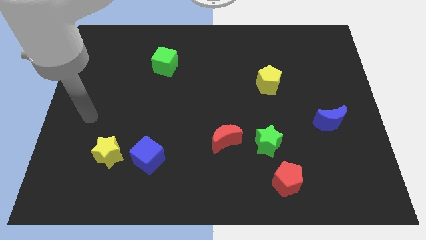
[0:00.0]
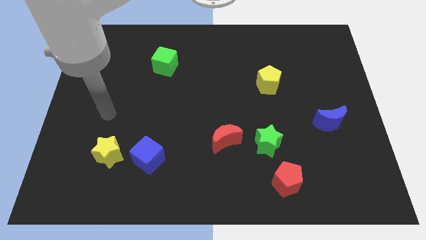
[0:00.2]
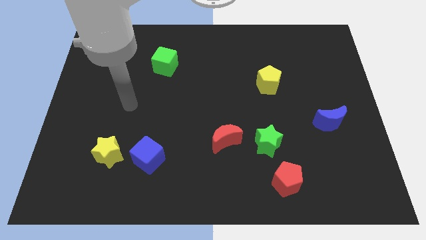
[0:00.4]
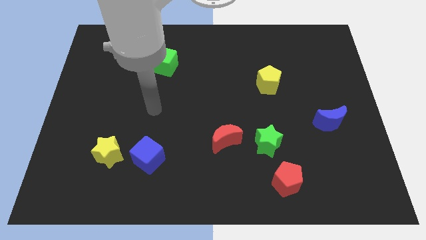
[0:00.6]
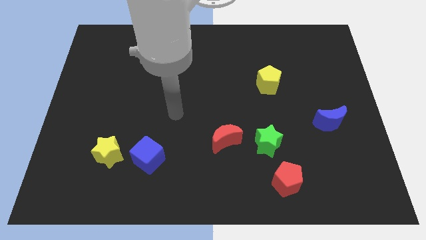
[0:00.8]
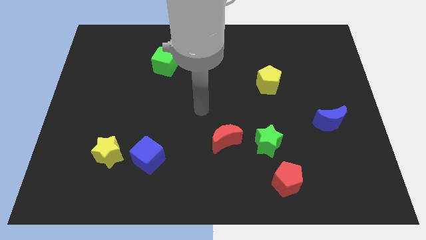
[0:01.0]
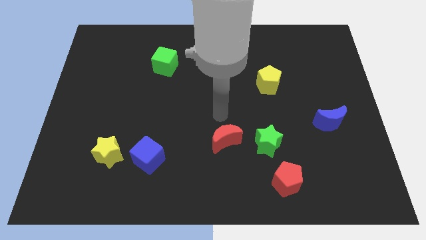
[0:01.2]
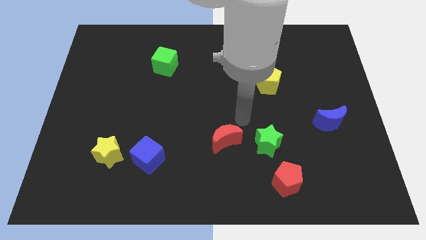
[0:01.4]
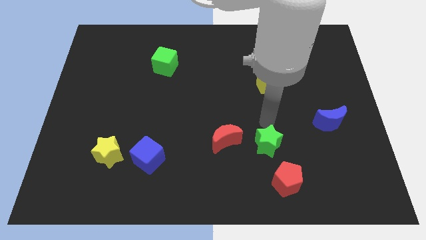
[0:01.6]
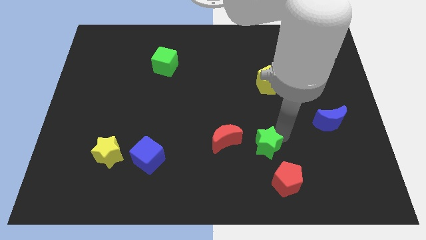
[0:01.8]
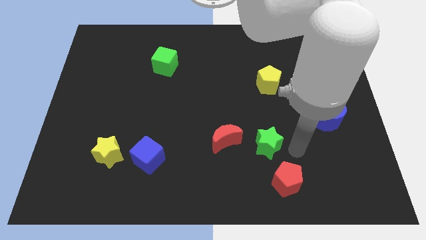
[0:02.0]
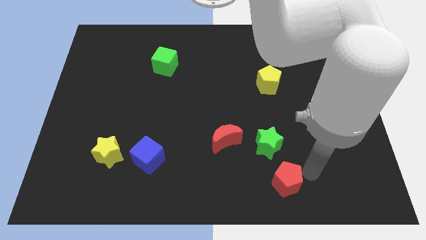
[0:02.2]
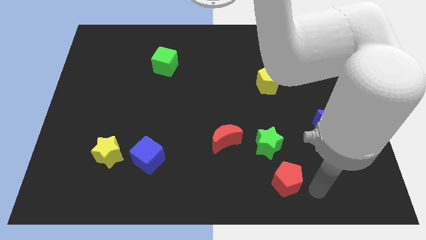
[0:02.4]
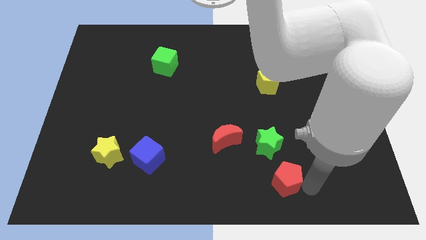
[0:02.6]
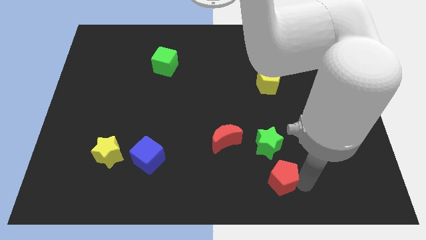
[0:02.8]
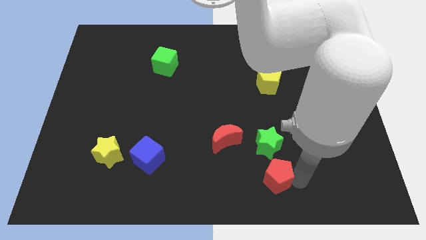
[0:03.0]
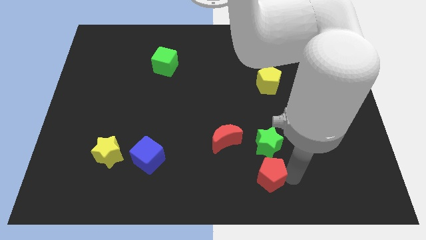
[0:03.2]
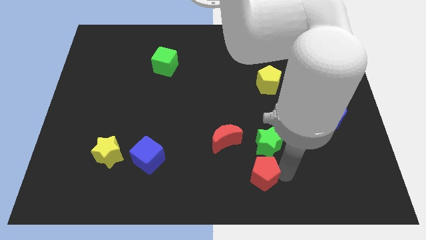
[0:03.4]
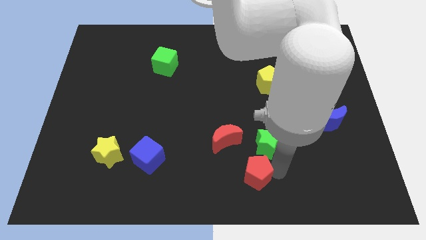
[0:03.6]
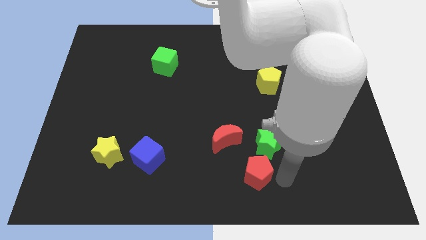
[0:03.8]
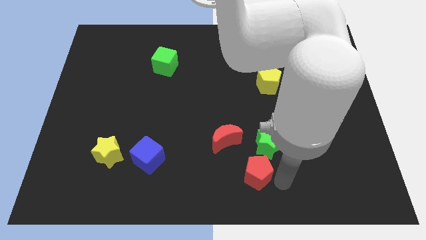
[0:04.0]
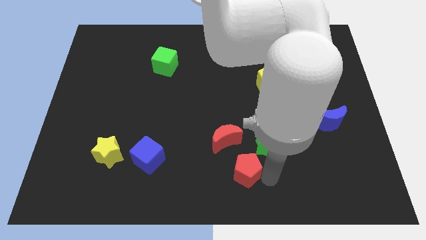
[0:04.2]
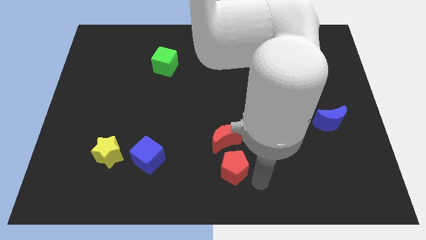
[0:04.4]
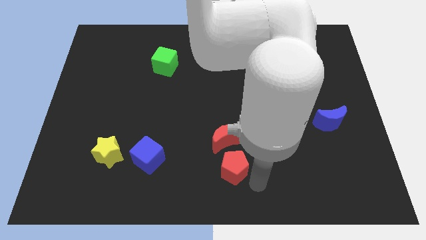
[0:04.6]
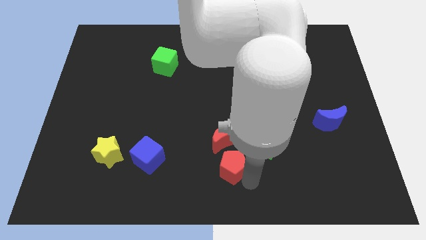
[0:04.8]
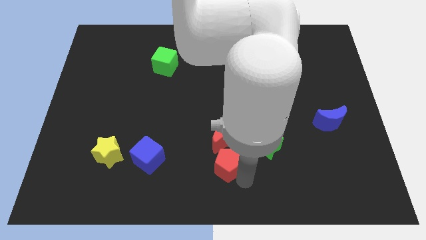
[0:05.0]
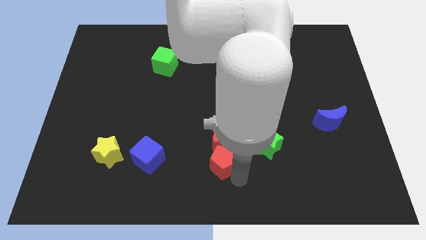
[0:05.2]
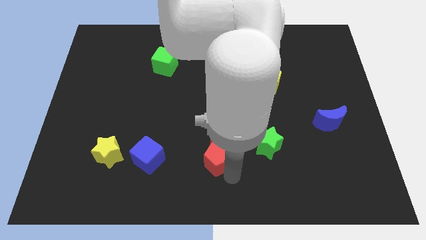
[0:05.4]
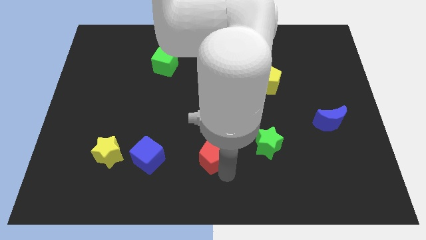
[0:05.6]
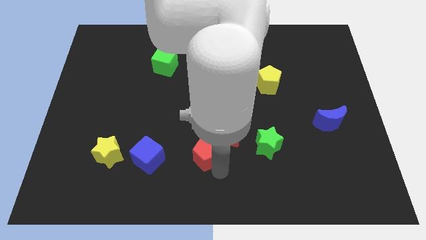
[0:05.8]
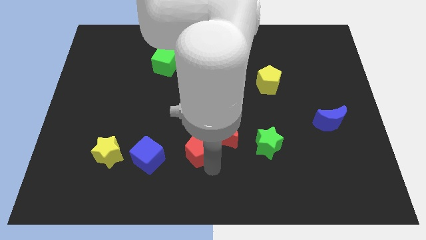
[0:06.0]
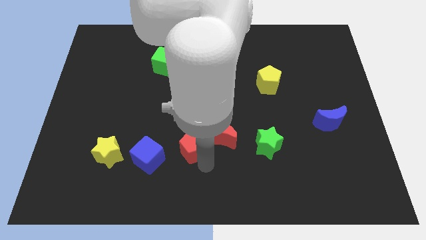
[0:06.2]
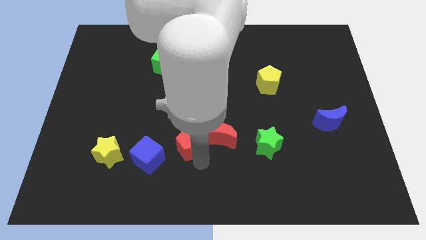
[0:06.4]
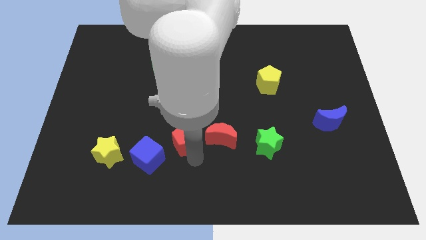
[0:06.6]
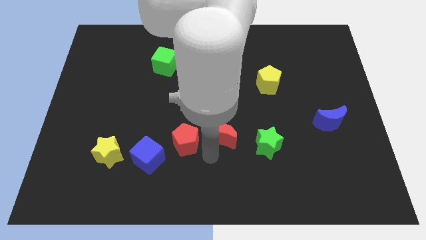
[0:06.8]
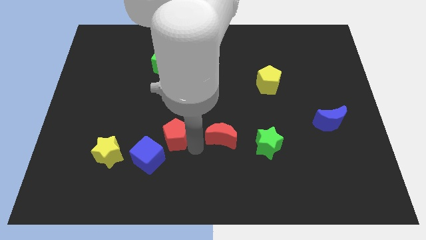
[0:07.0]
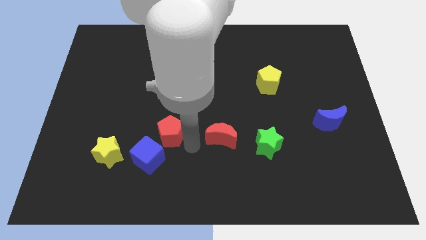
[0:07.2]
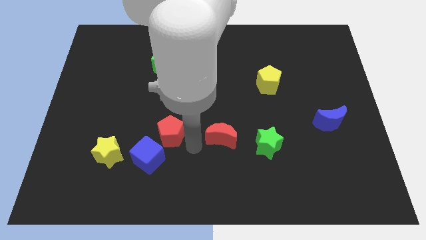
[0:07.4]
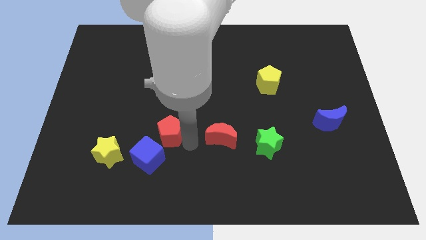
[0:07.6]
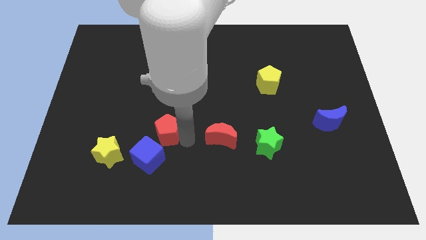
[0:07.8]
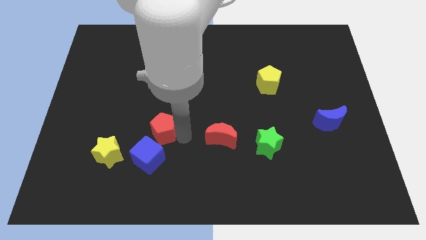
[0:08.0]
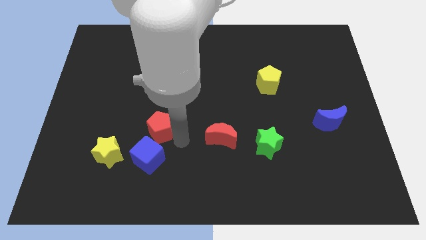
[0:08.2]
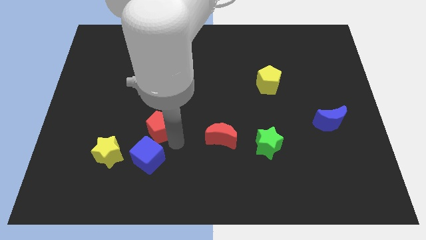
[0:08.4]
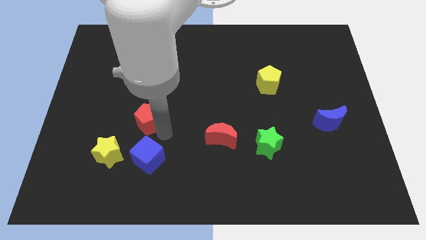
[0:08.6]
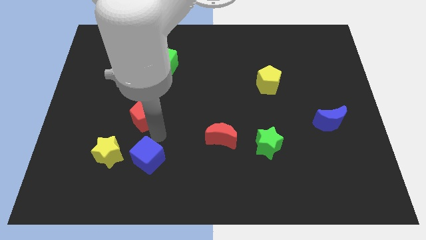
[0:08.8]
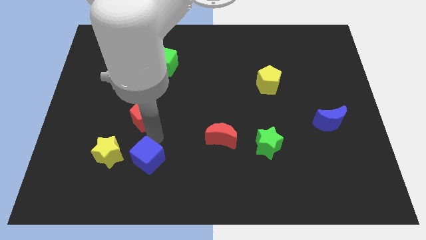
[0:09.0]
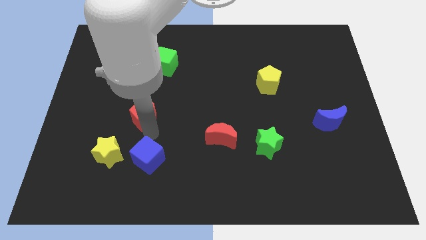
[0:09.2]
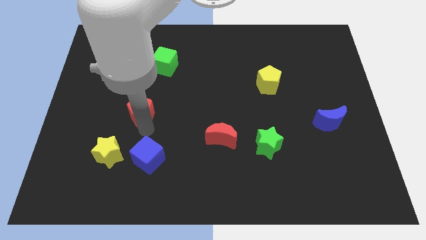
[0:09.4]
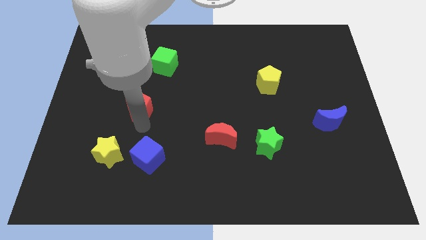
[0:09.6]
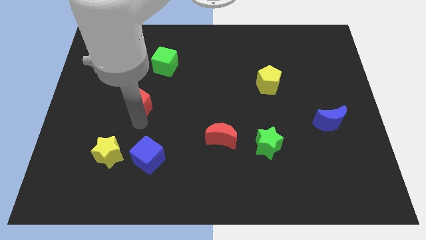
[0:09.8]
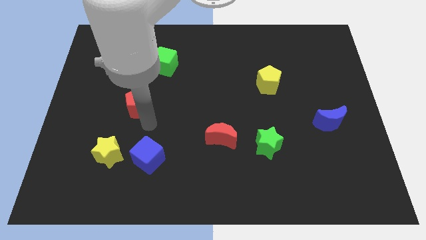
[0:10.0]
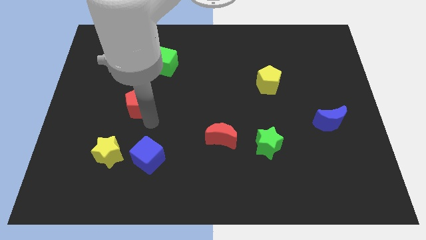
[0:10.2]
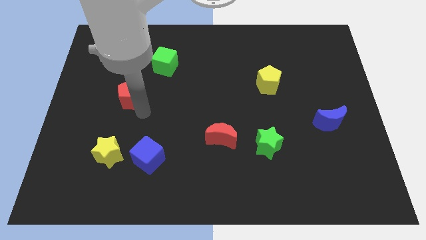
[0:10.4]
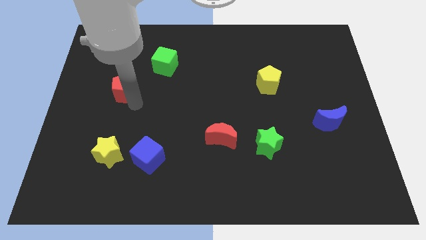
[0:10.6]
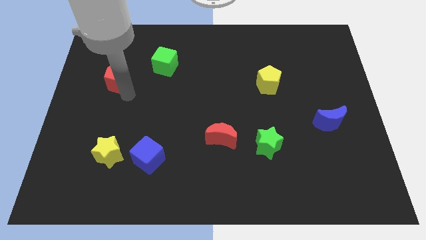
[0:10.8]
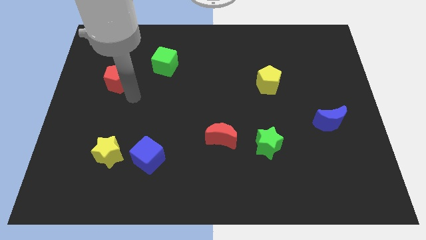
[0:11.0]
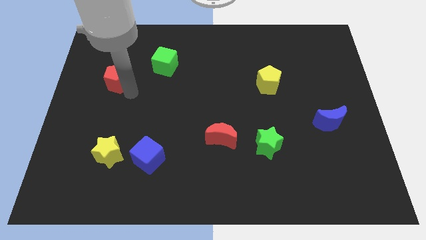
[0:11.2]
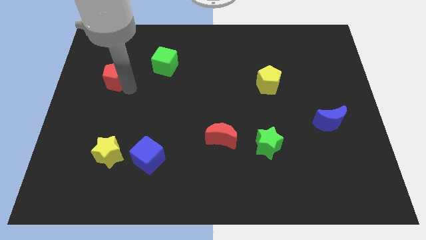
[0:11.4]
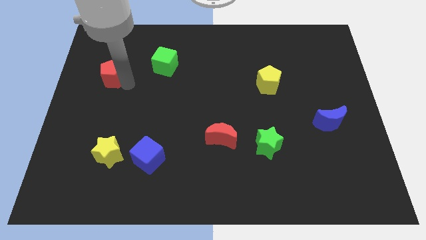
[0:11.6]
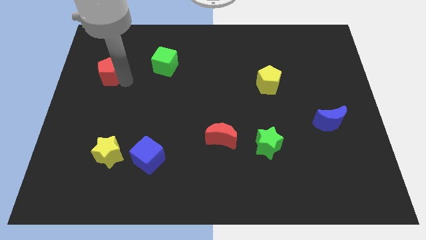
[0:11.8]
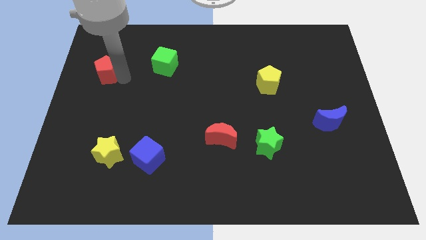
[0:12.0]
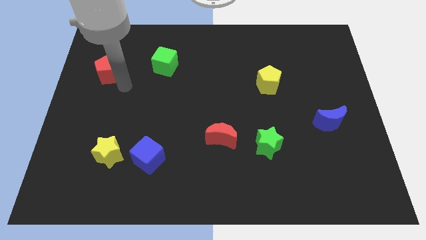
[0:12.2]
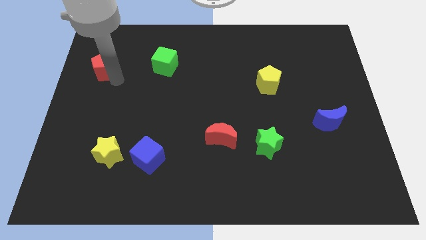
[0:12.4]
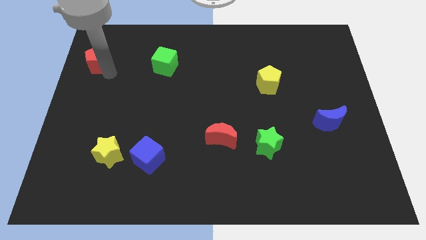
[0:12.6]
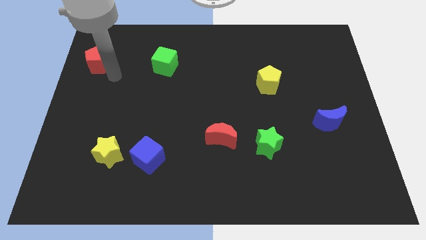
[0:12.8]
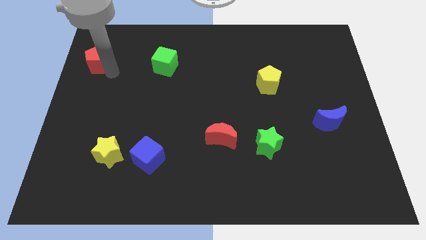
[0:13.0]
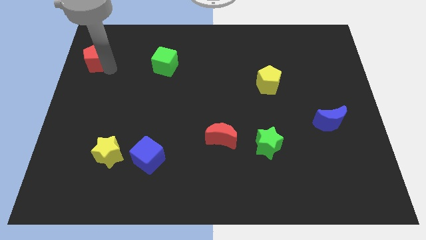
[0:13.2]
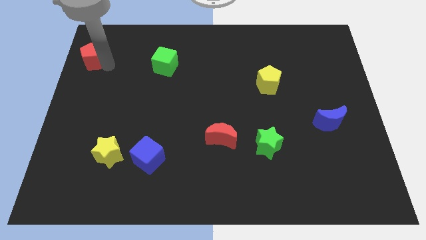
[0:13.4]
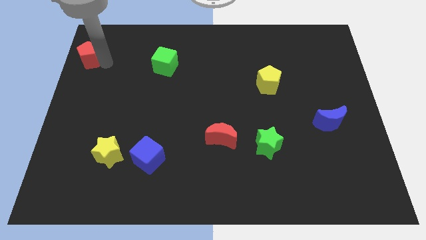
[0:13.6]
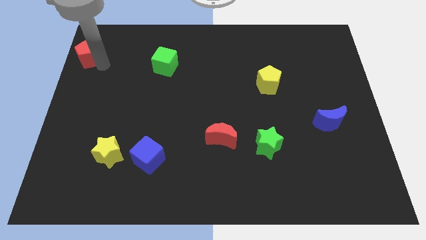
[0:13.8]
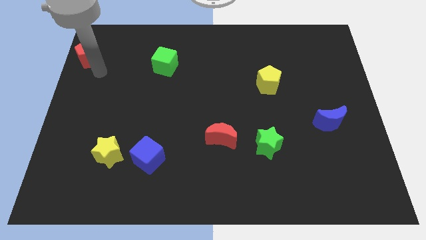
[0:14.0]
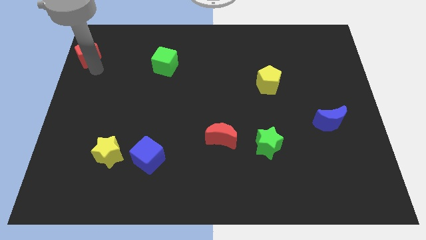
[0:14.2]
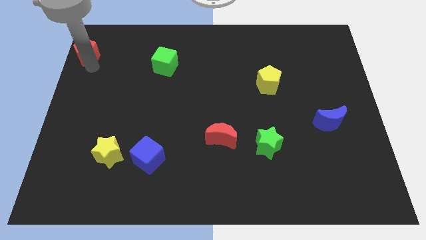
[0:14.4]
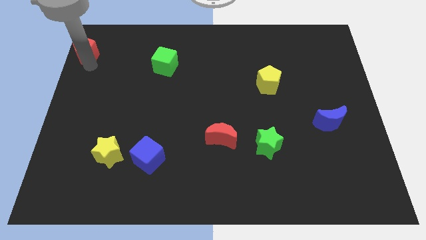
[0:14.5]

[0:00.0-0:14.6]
slide the red pentagon to the top left of the board
